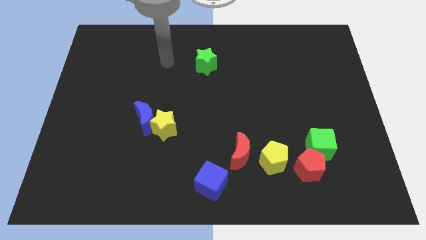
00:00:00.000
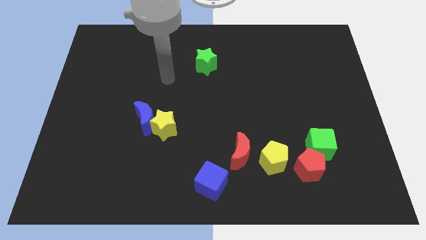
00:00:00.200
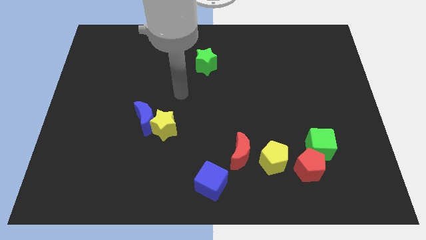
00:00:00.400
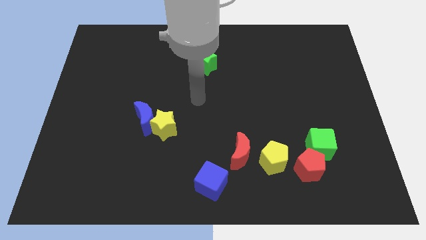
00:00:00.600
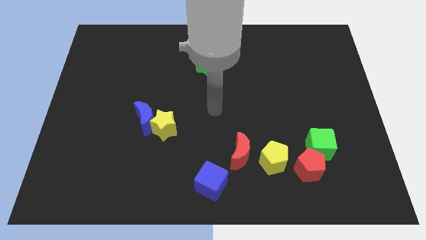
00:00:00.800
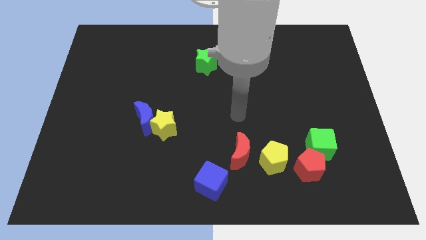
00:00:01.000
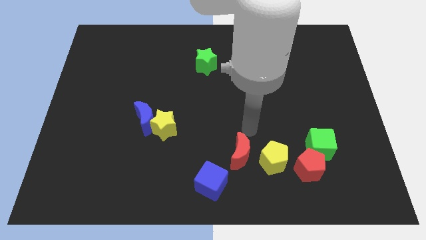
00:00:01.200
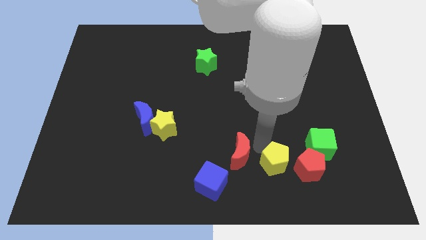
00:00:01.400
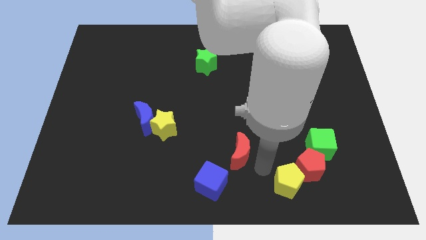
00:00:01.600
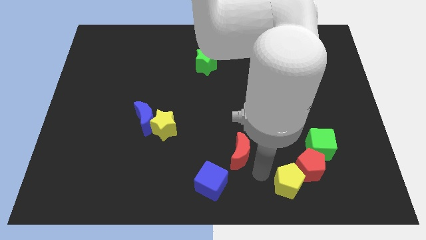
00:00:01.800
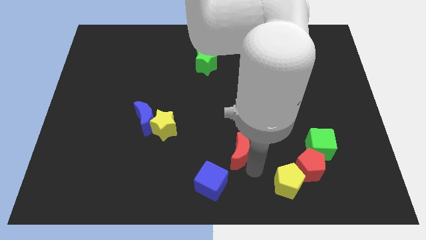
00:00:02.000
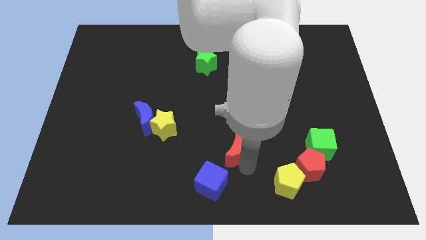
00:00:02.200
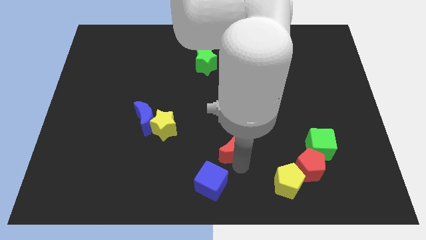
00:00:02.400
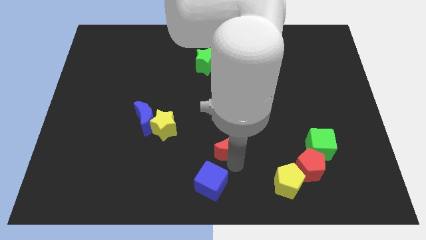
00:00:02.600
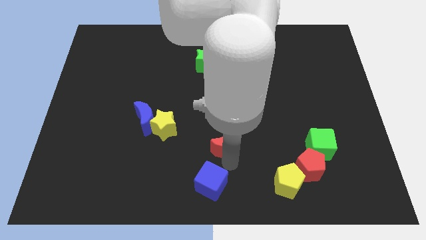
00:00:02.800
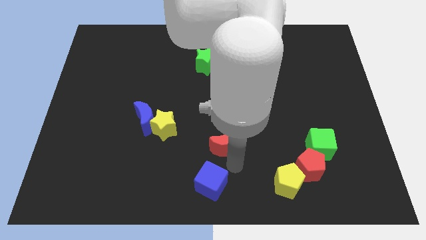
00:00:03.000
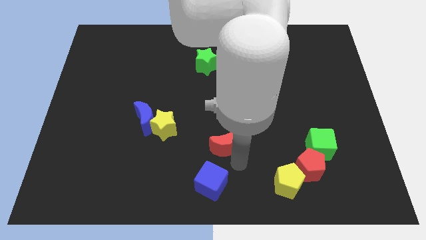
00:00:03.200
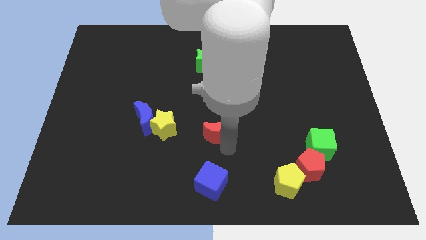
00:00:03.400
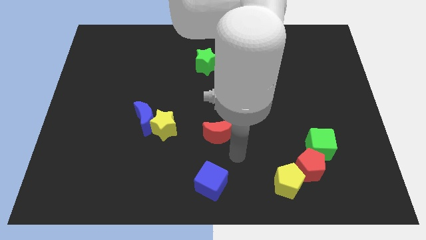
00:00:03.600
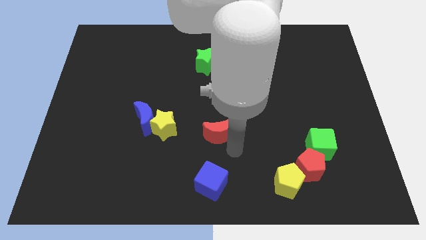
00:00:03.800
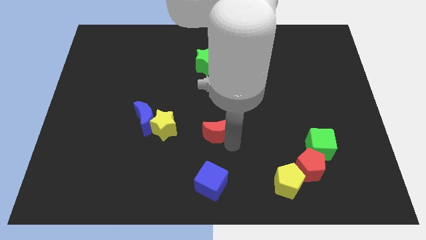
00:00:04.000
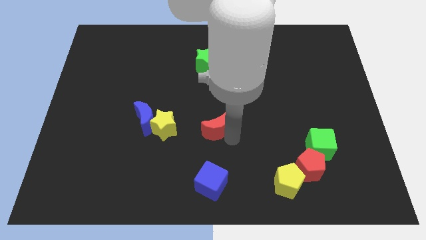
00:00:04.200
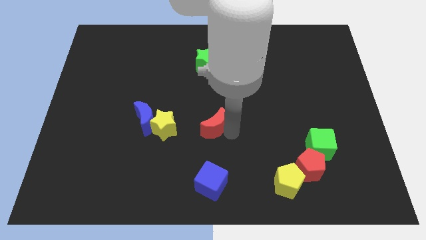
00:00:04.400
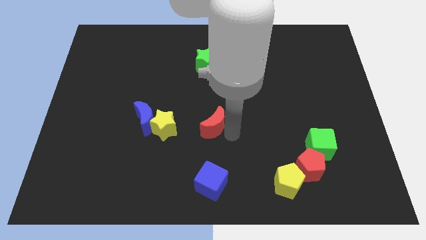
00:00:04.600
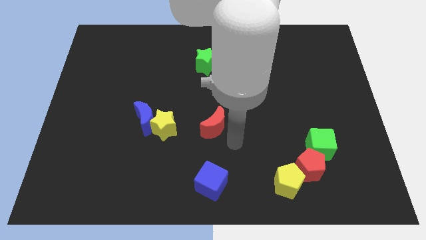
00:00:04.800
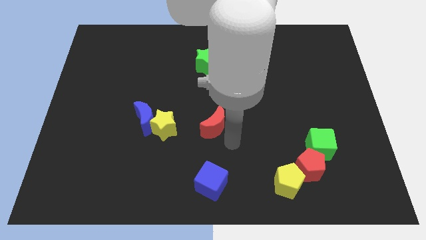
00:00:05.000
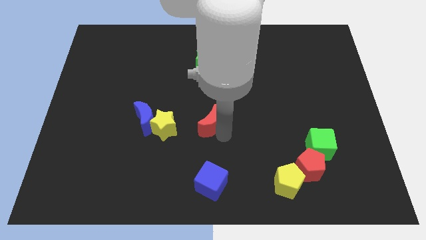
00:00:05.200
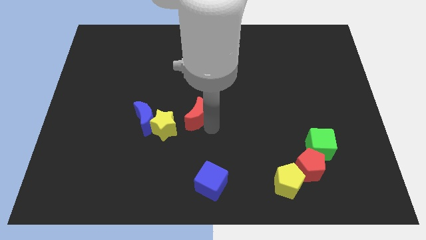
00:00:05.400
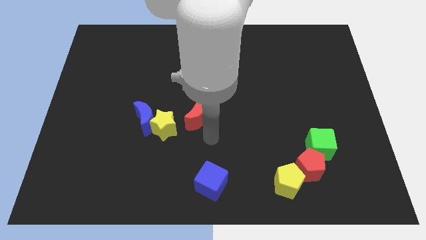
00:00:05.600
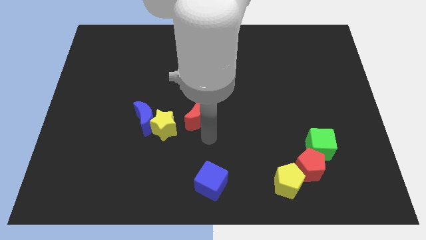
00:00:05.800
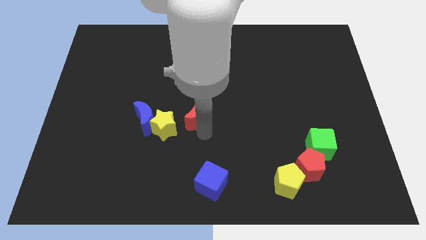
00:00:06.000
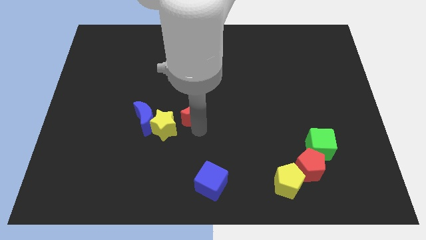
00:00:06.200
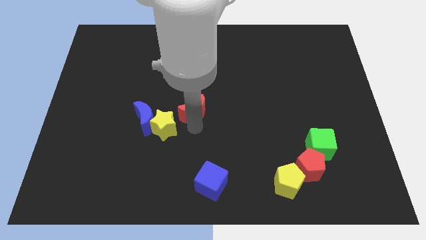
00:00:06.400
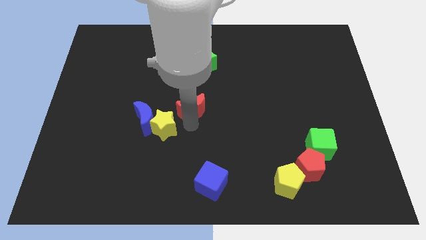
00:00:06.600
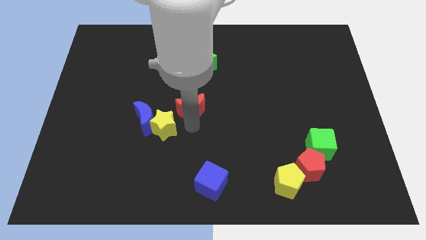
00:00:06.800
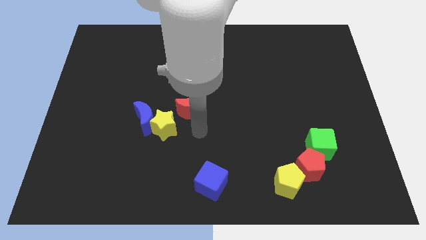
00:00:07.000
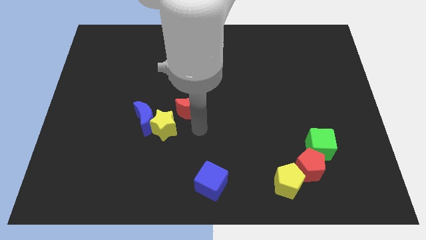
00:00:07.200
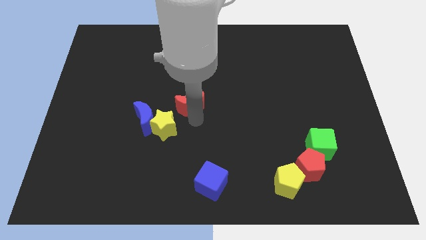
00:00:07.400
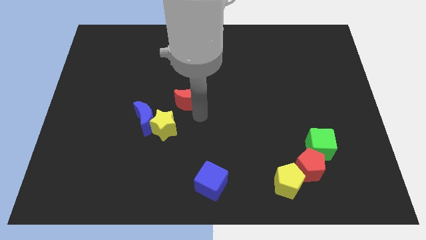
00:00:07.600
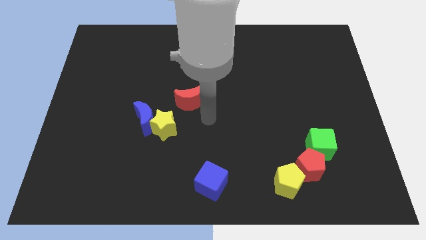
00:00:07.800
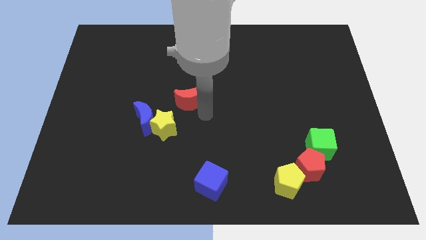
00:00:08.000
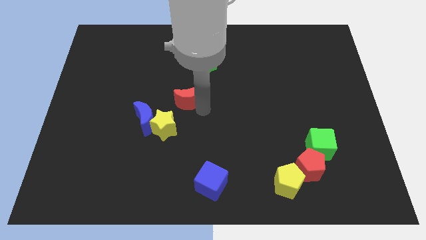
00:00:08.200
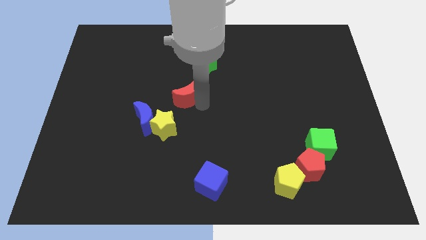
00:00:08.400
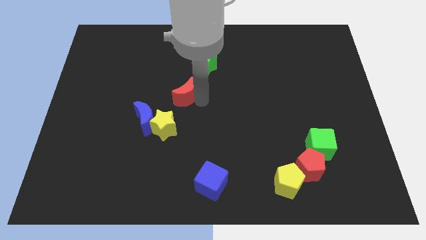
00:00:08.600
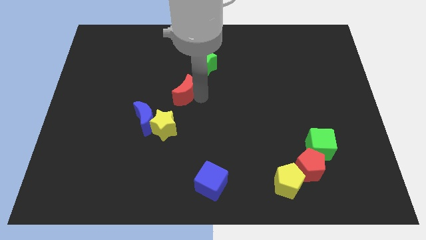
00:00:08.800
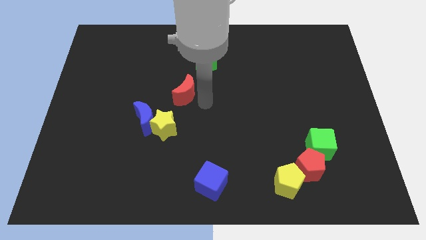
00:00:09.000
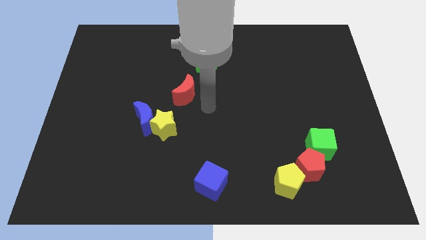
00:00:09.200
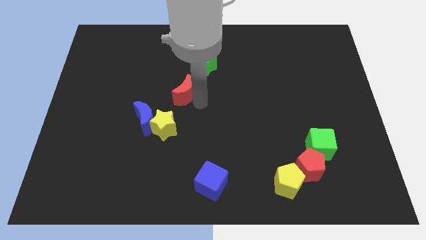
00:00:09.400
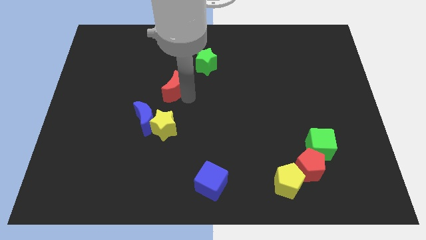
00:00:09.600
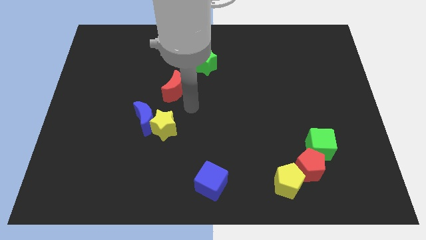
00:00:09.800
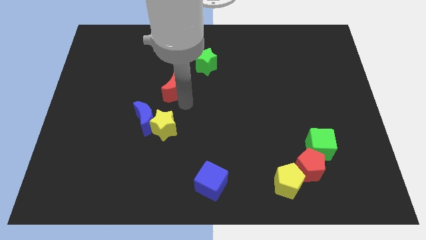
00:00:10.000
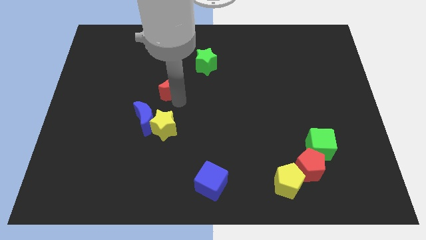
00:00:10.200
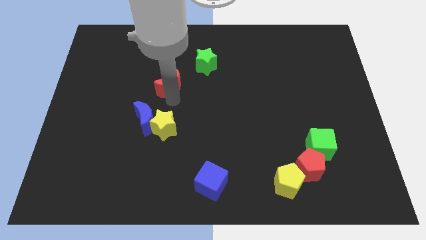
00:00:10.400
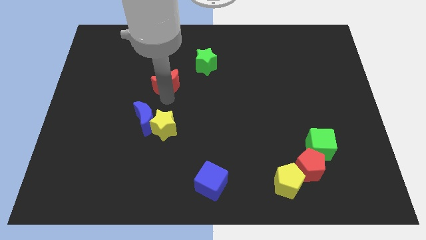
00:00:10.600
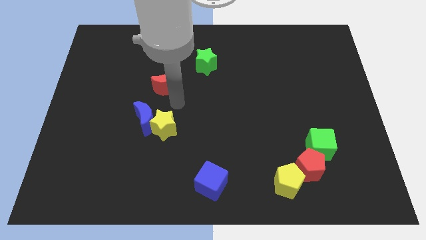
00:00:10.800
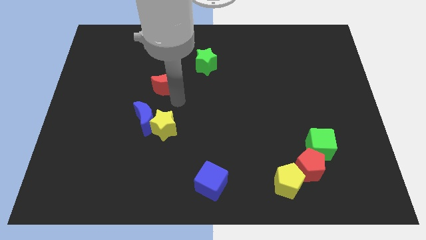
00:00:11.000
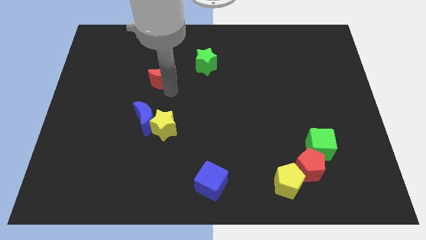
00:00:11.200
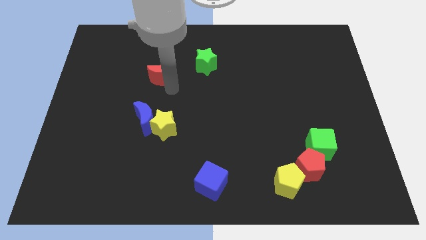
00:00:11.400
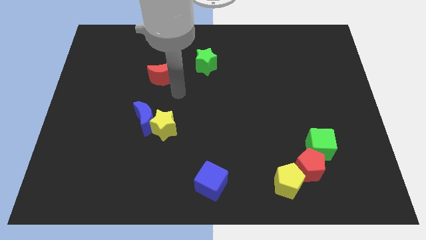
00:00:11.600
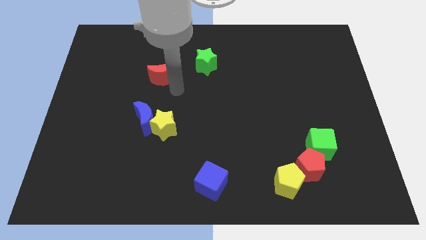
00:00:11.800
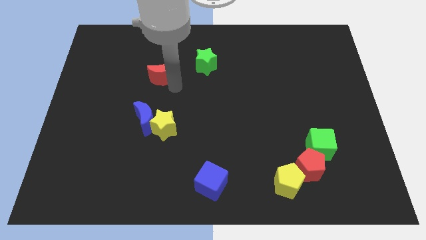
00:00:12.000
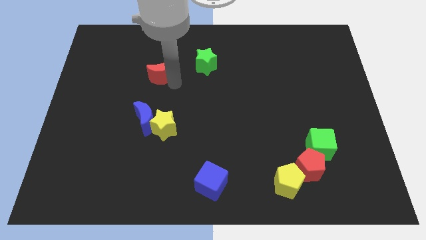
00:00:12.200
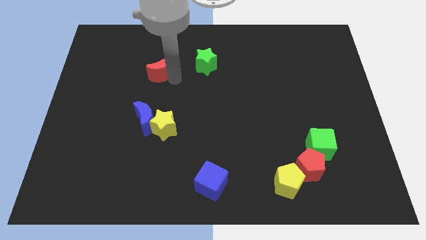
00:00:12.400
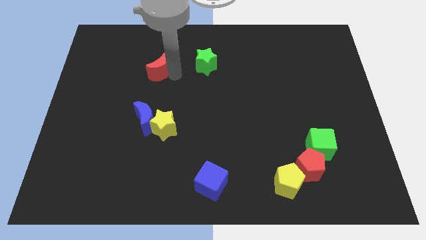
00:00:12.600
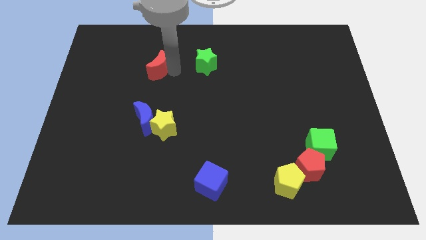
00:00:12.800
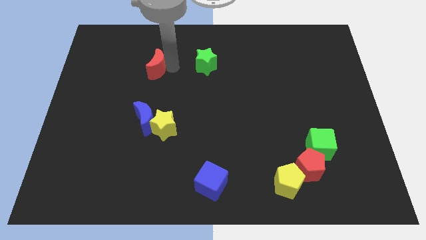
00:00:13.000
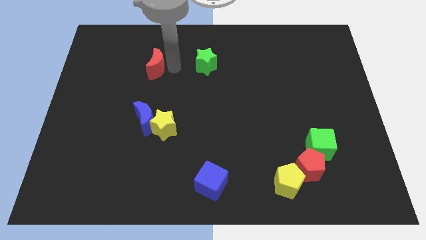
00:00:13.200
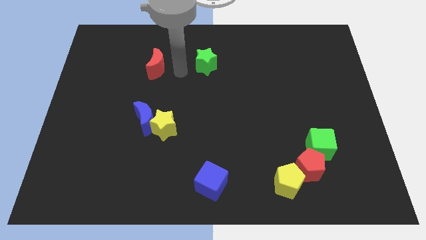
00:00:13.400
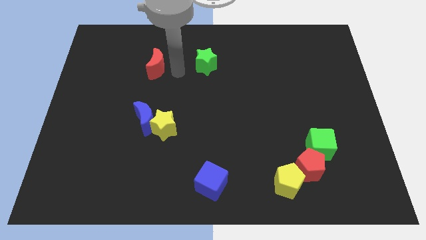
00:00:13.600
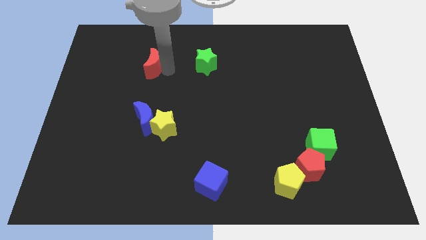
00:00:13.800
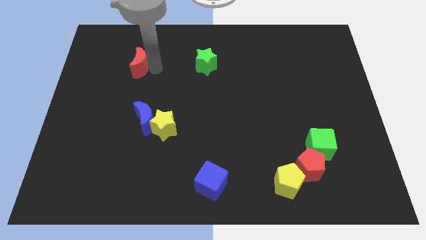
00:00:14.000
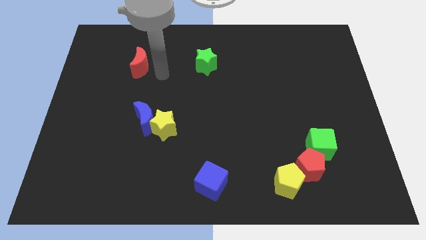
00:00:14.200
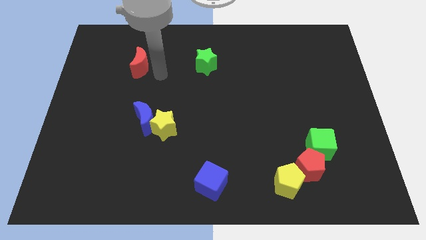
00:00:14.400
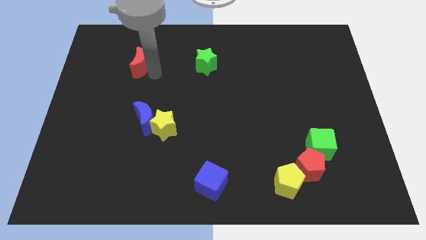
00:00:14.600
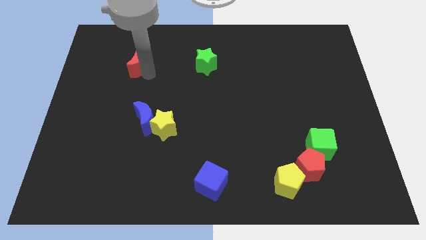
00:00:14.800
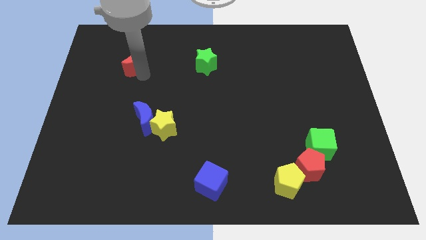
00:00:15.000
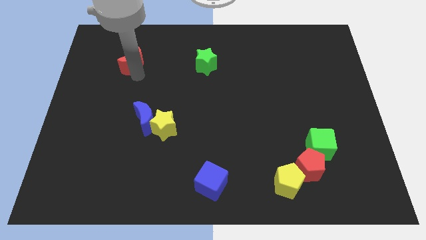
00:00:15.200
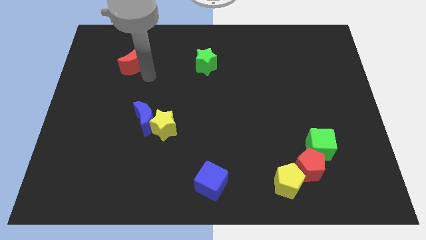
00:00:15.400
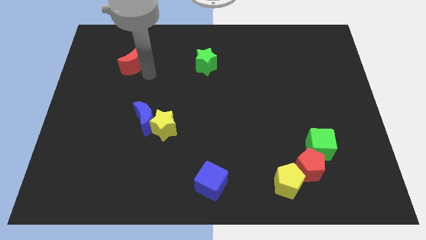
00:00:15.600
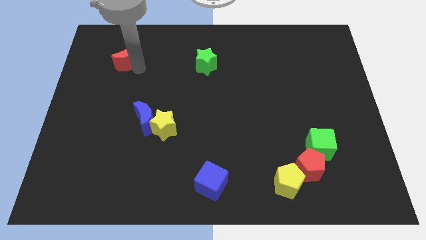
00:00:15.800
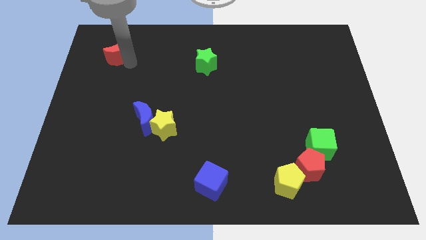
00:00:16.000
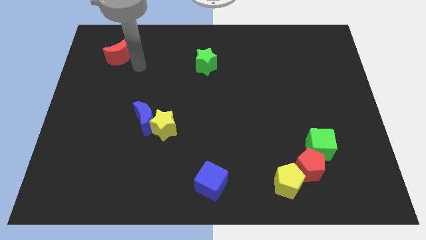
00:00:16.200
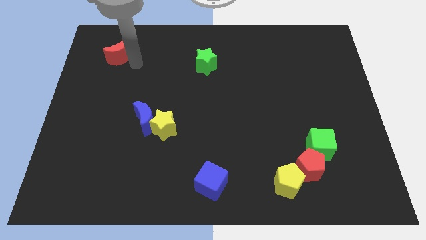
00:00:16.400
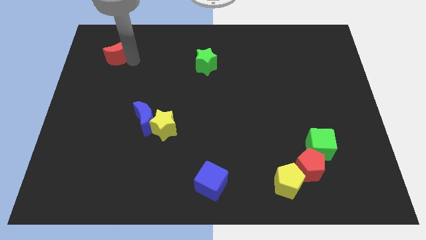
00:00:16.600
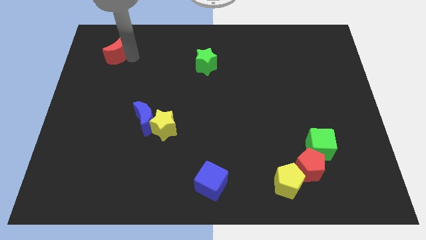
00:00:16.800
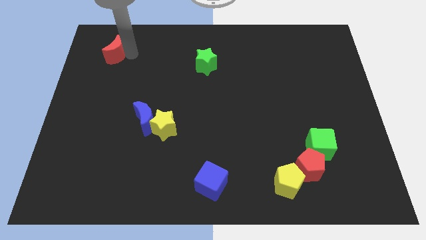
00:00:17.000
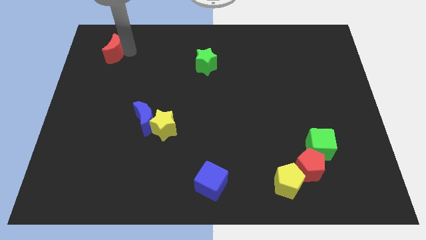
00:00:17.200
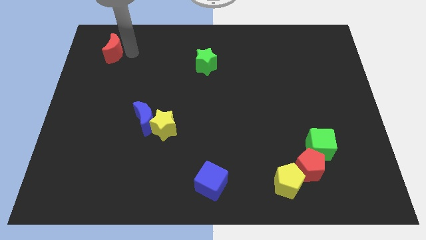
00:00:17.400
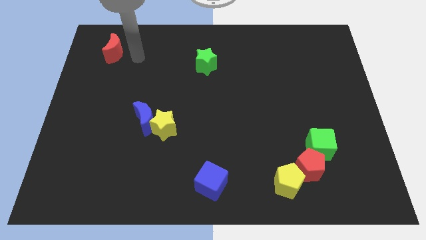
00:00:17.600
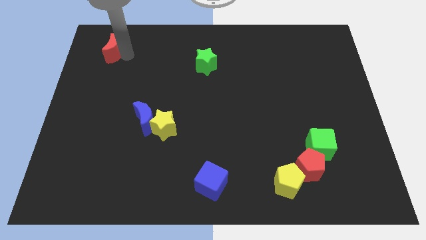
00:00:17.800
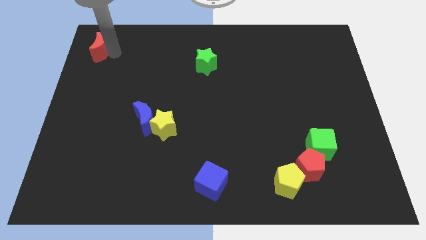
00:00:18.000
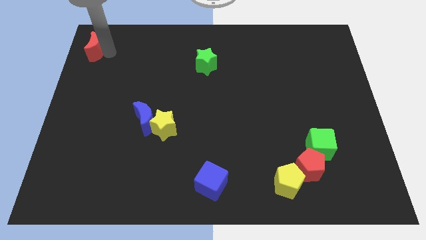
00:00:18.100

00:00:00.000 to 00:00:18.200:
move the red moon to the top left of the board
